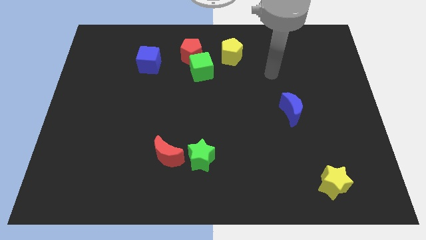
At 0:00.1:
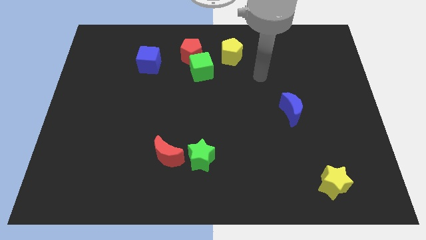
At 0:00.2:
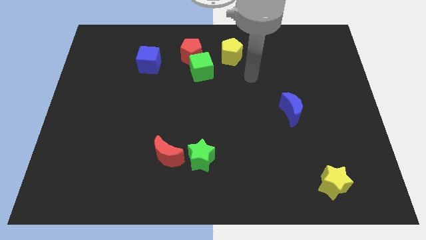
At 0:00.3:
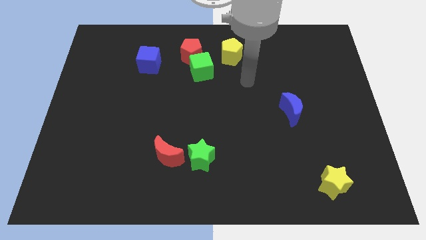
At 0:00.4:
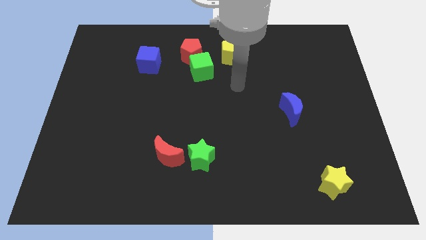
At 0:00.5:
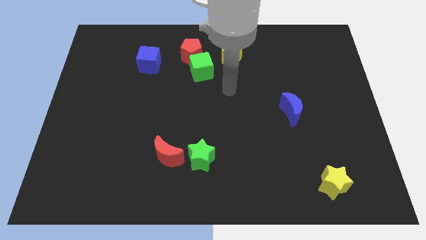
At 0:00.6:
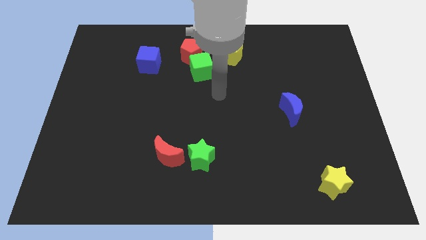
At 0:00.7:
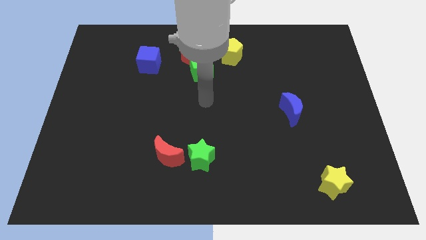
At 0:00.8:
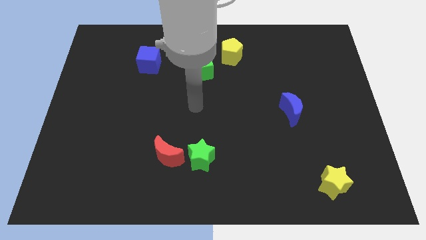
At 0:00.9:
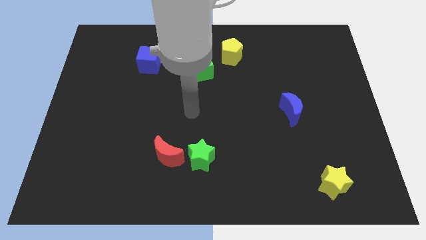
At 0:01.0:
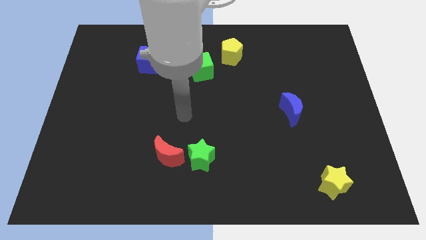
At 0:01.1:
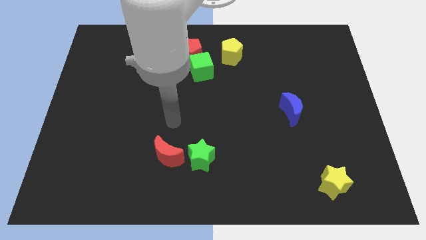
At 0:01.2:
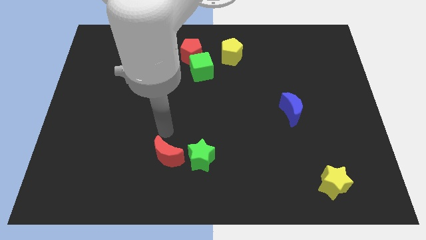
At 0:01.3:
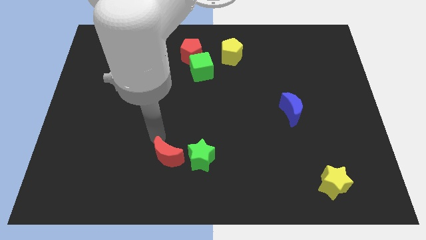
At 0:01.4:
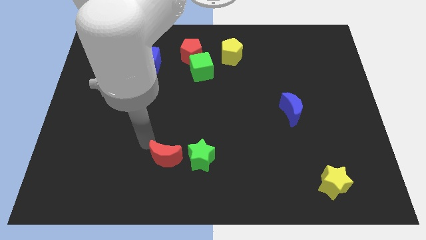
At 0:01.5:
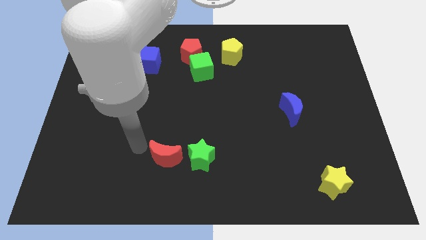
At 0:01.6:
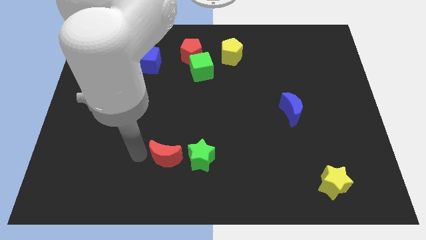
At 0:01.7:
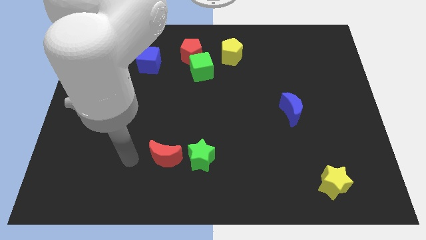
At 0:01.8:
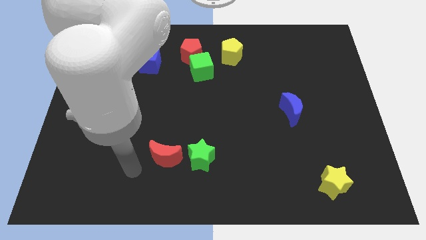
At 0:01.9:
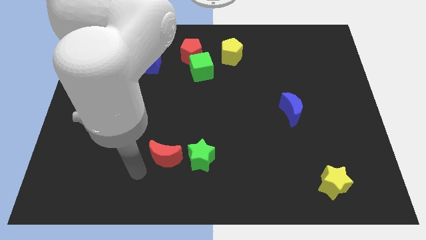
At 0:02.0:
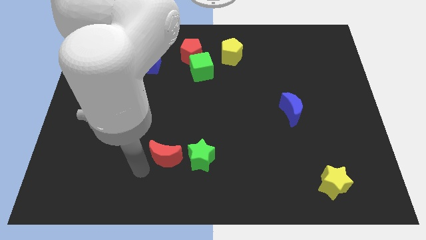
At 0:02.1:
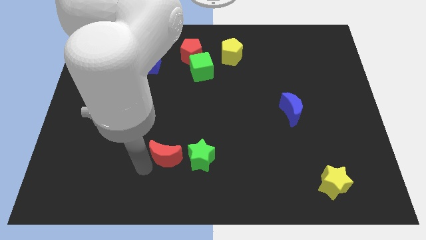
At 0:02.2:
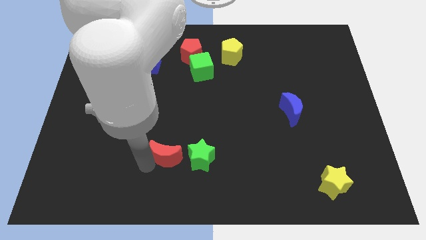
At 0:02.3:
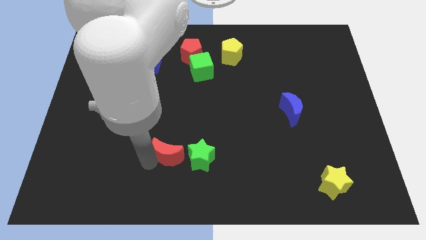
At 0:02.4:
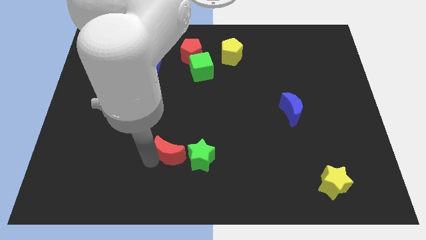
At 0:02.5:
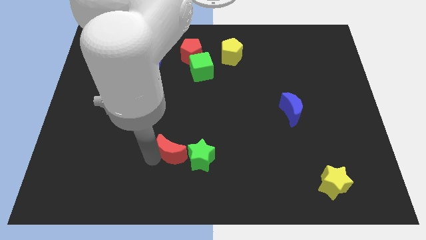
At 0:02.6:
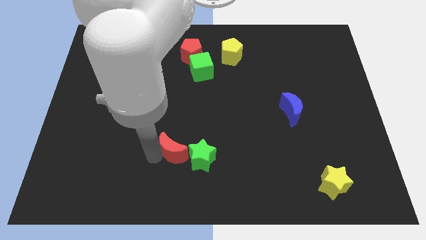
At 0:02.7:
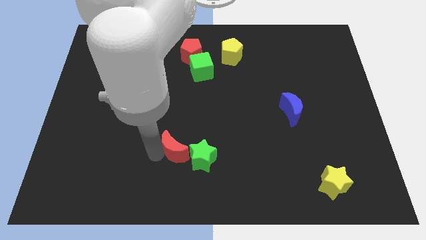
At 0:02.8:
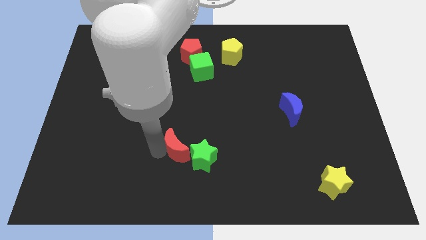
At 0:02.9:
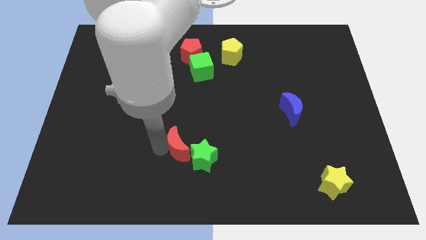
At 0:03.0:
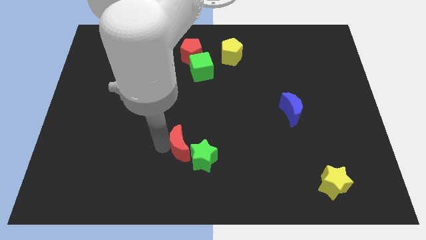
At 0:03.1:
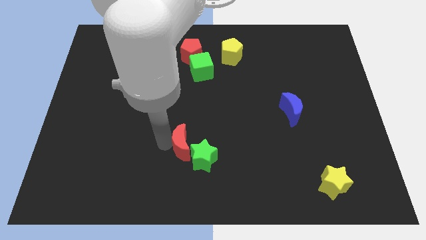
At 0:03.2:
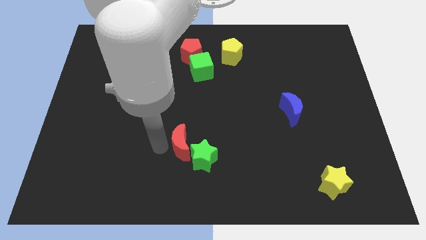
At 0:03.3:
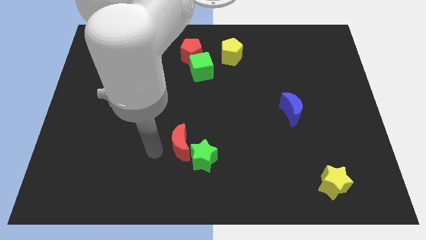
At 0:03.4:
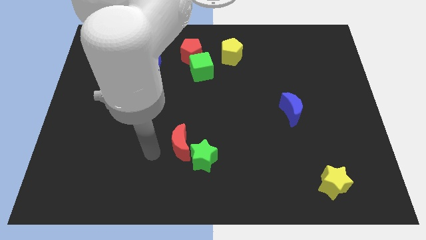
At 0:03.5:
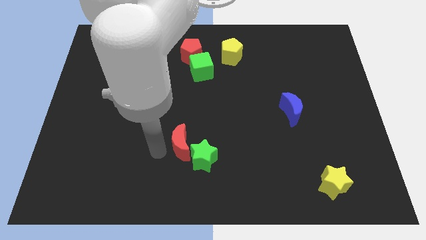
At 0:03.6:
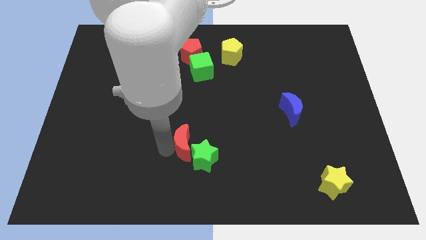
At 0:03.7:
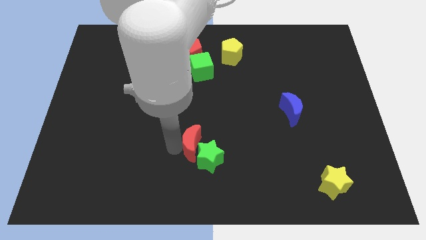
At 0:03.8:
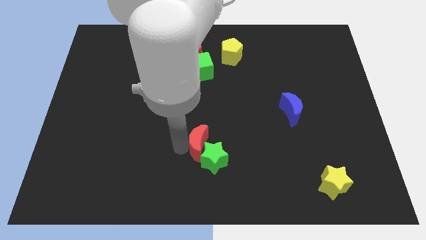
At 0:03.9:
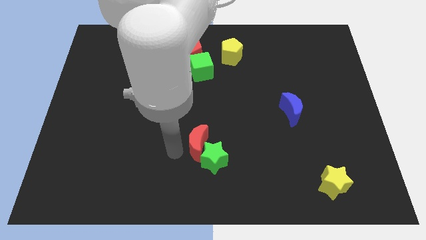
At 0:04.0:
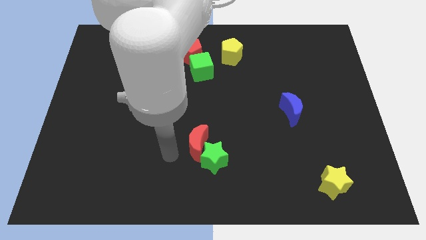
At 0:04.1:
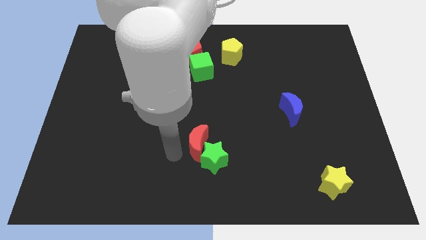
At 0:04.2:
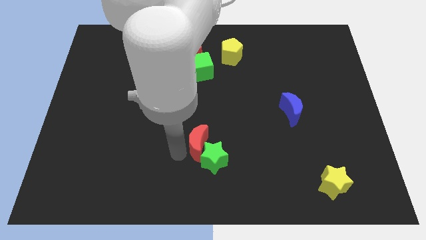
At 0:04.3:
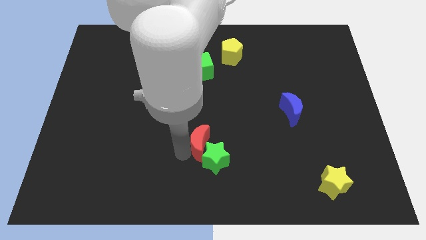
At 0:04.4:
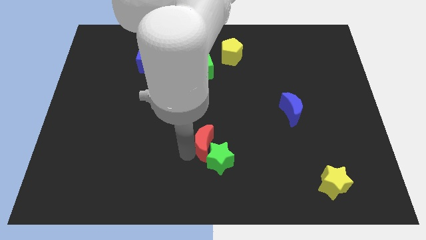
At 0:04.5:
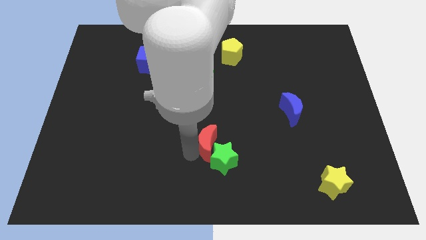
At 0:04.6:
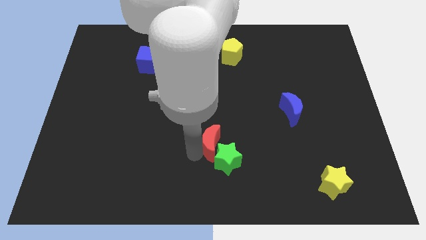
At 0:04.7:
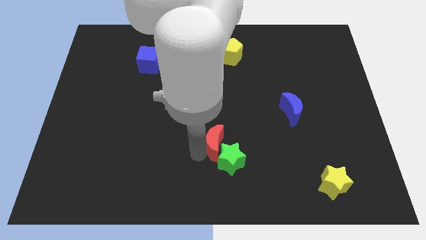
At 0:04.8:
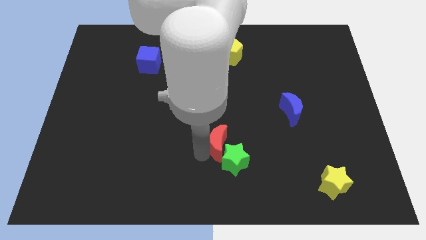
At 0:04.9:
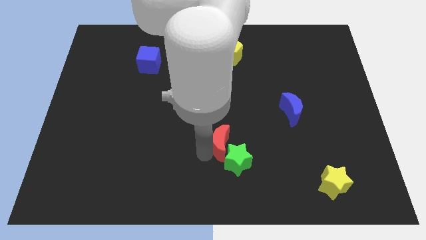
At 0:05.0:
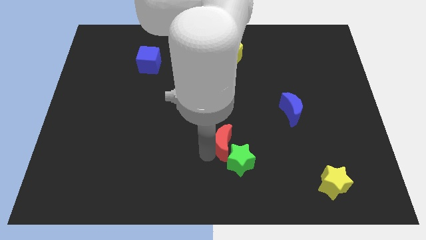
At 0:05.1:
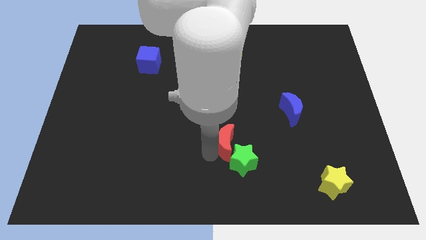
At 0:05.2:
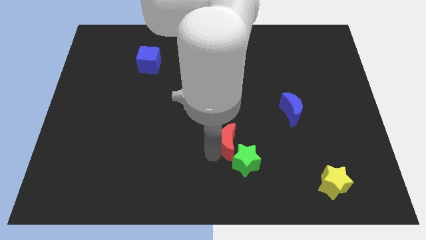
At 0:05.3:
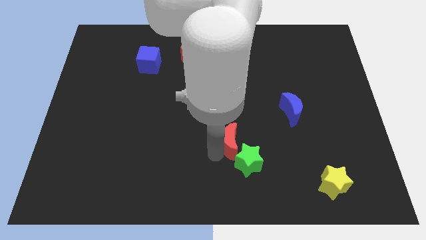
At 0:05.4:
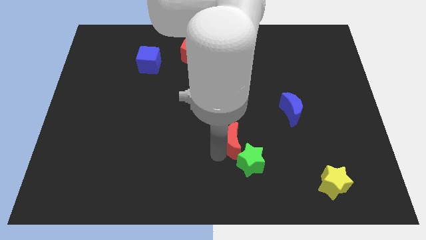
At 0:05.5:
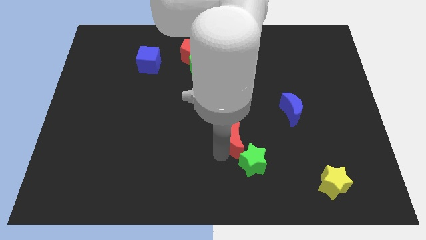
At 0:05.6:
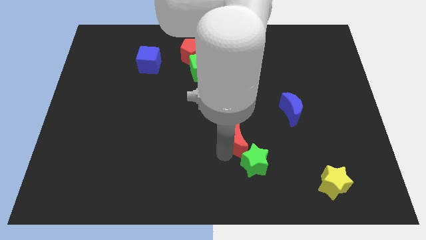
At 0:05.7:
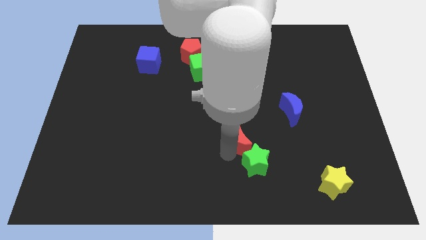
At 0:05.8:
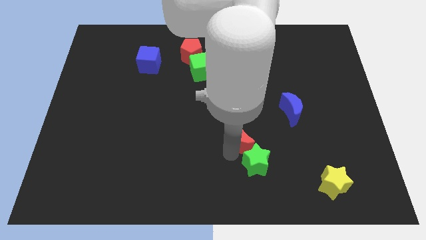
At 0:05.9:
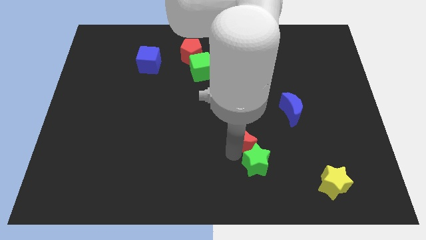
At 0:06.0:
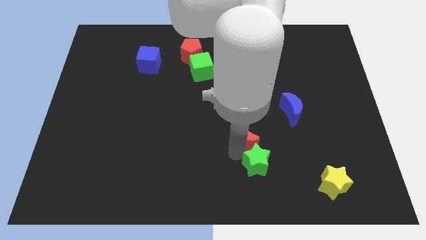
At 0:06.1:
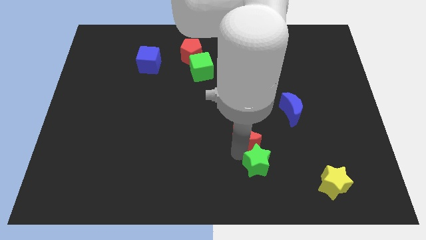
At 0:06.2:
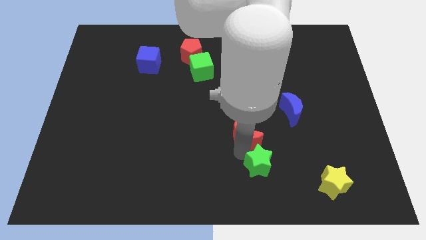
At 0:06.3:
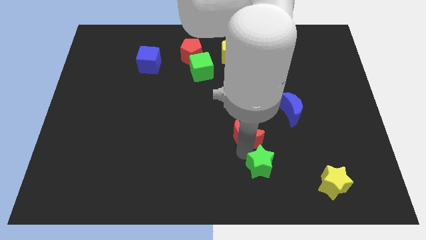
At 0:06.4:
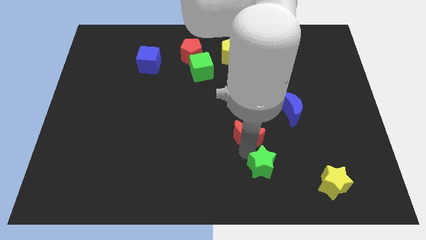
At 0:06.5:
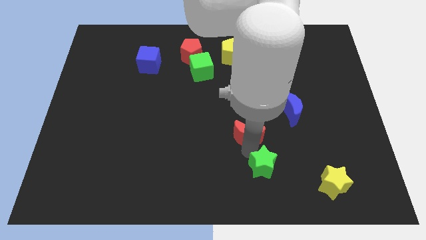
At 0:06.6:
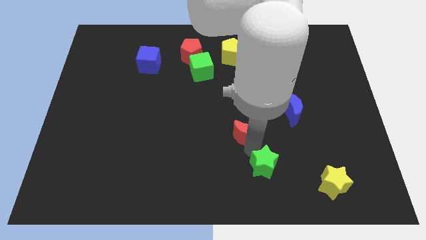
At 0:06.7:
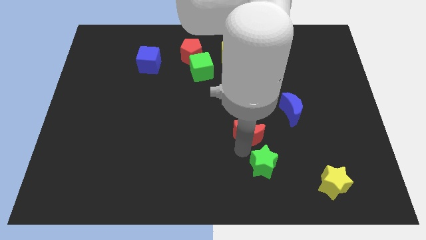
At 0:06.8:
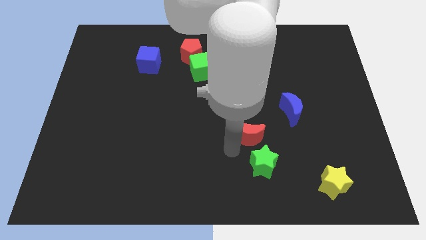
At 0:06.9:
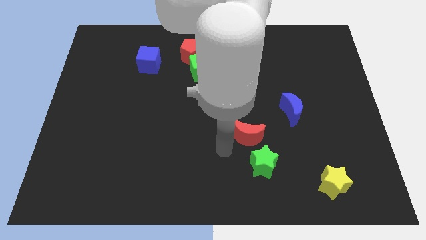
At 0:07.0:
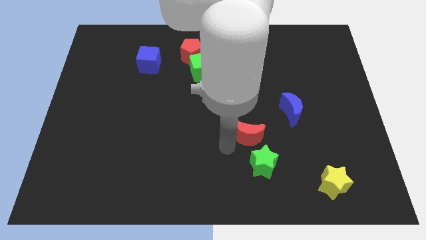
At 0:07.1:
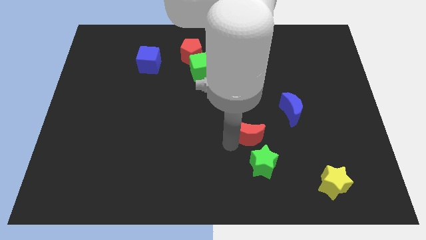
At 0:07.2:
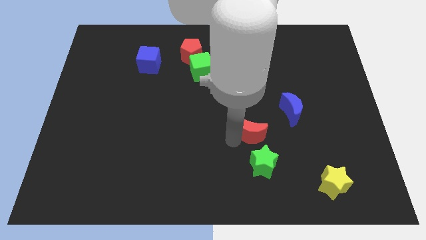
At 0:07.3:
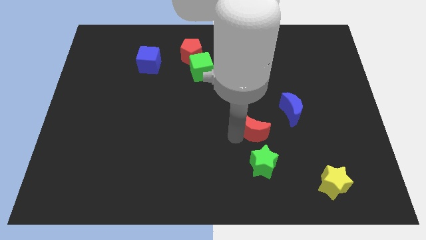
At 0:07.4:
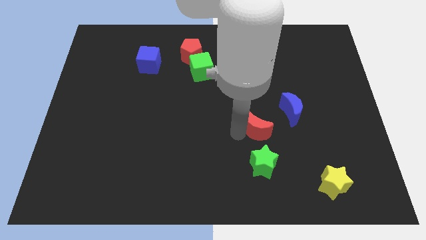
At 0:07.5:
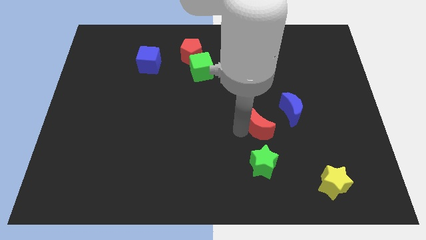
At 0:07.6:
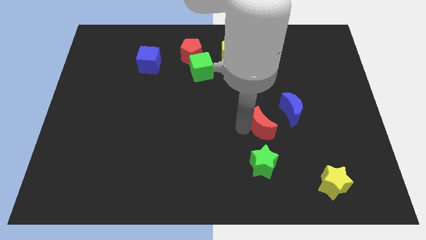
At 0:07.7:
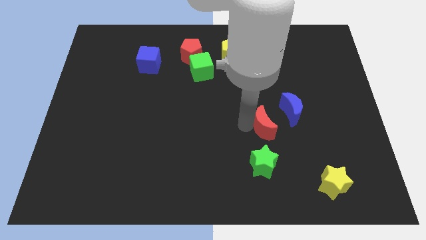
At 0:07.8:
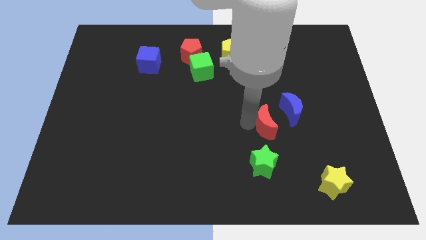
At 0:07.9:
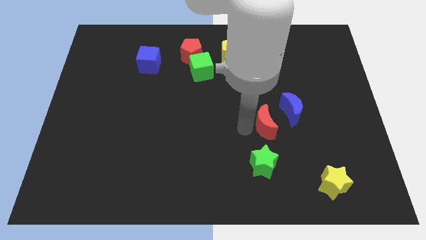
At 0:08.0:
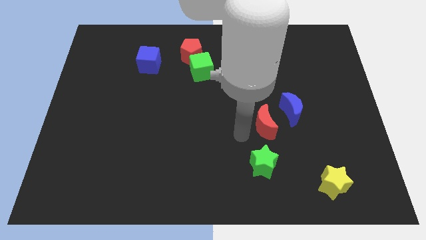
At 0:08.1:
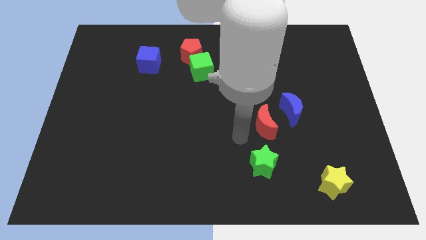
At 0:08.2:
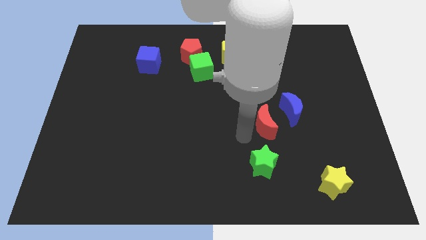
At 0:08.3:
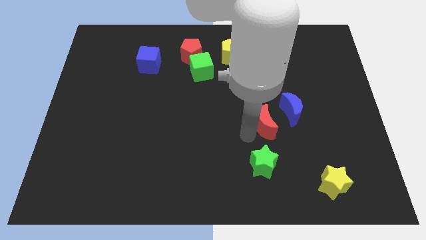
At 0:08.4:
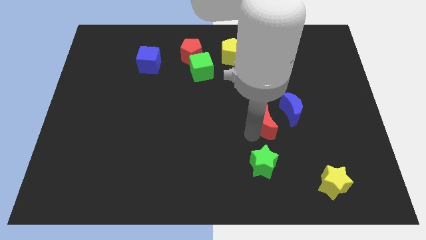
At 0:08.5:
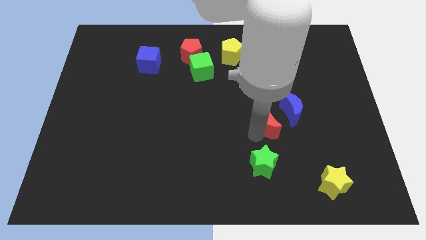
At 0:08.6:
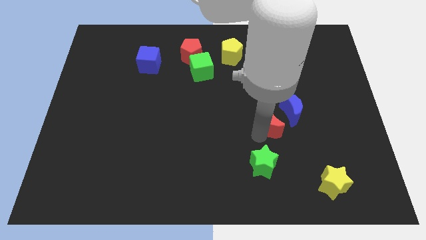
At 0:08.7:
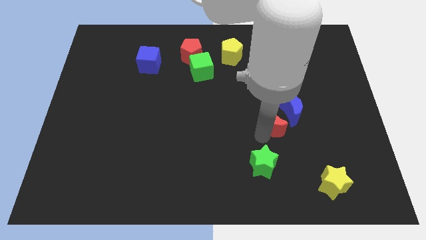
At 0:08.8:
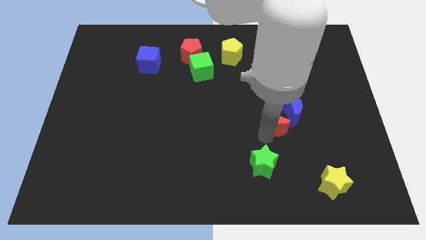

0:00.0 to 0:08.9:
move the red moon towards the blue moon
